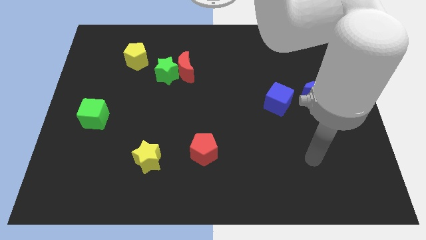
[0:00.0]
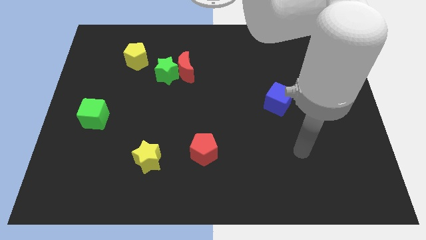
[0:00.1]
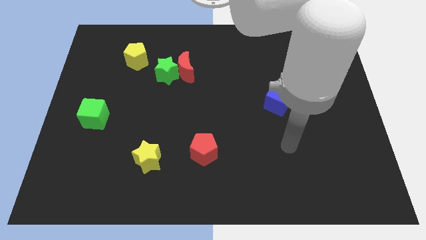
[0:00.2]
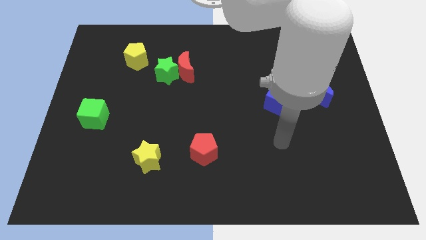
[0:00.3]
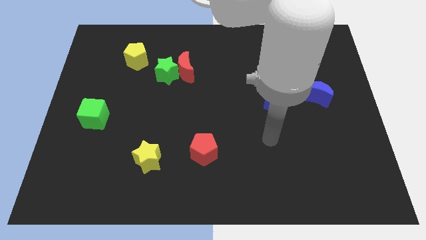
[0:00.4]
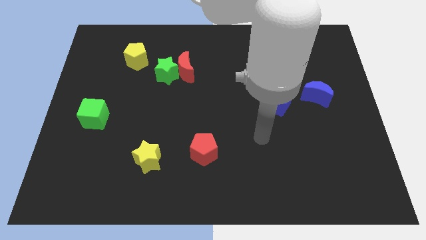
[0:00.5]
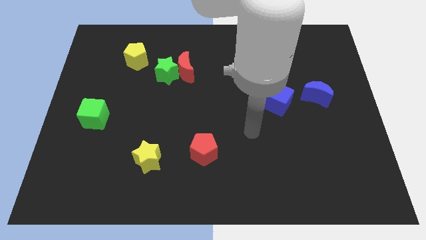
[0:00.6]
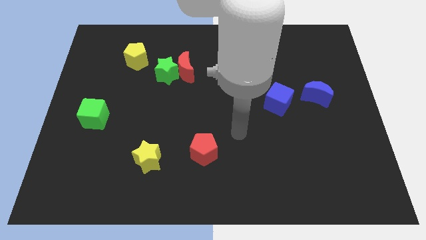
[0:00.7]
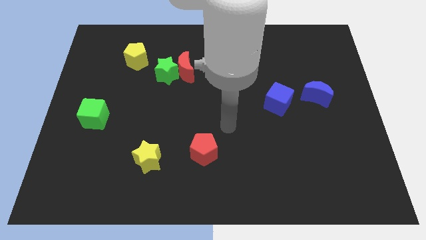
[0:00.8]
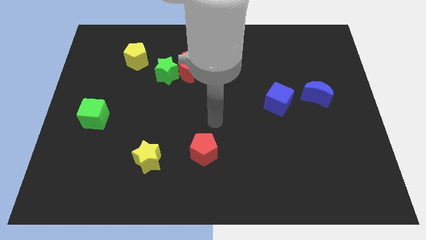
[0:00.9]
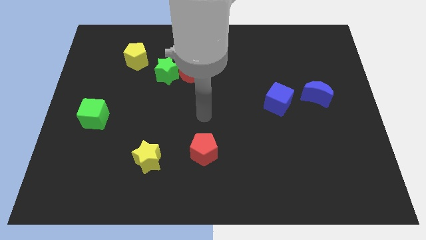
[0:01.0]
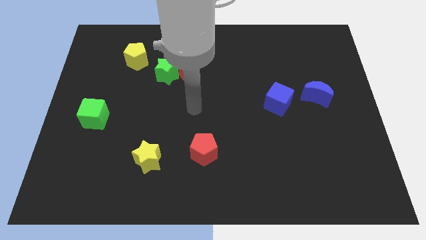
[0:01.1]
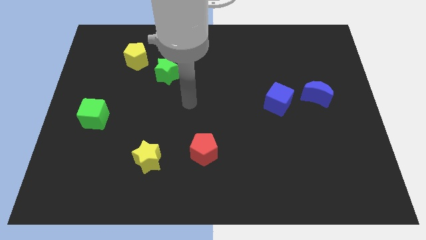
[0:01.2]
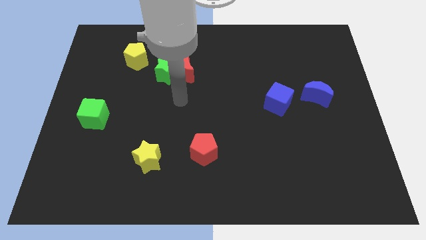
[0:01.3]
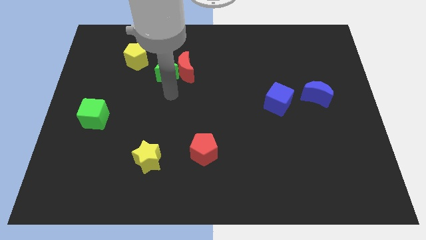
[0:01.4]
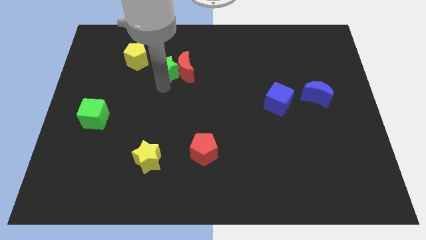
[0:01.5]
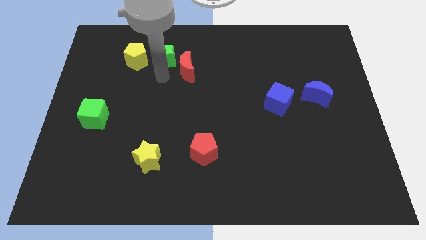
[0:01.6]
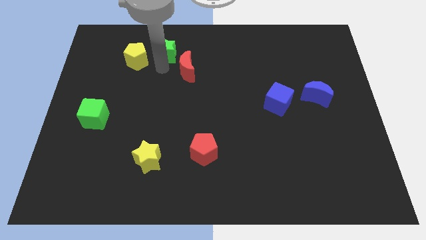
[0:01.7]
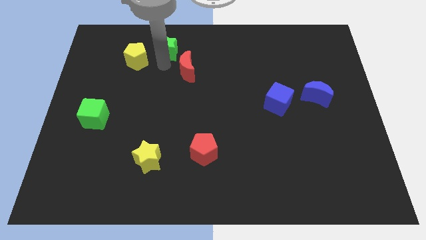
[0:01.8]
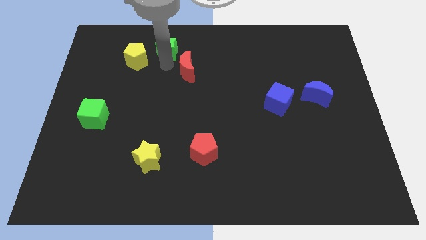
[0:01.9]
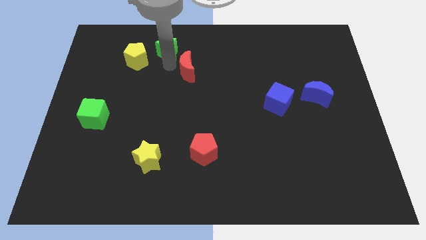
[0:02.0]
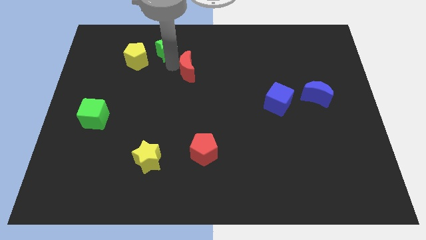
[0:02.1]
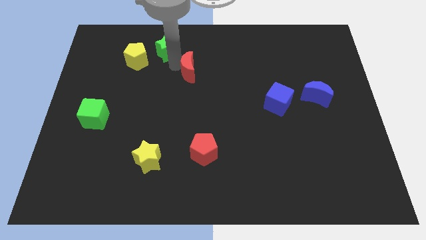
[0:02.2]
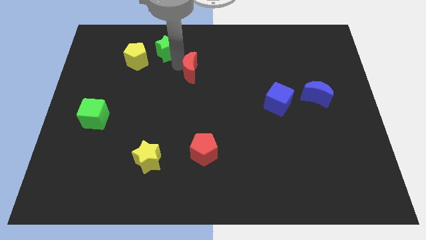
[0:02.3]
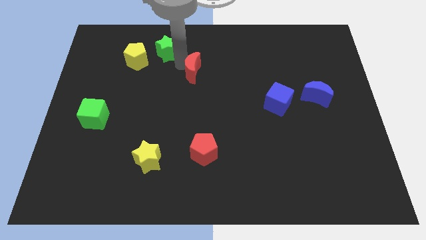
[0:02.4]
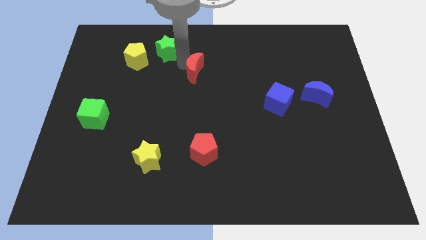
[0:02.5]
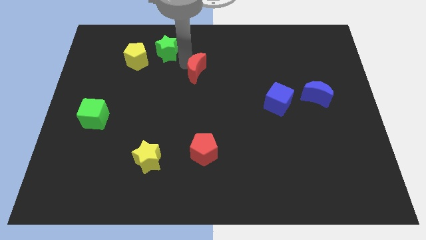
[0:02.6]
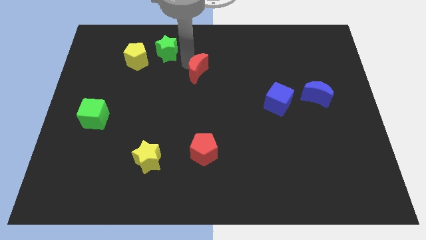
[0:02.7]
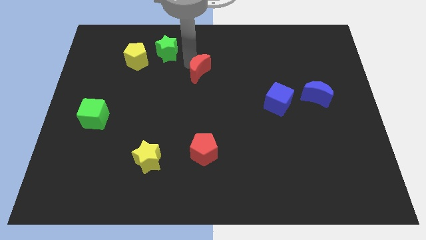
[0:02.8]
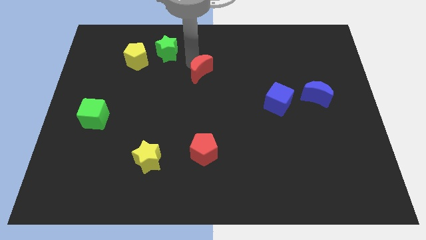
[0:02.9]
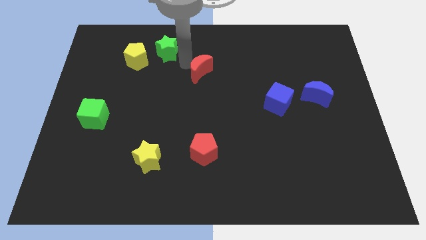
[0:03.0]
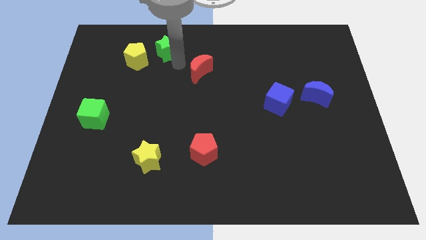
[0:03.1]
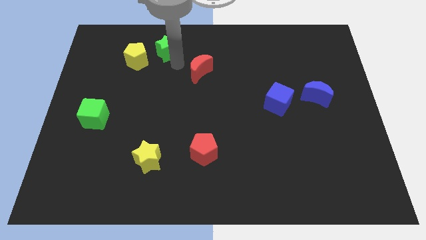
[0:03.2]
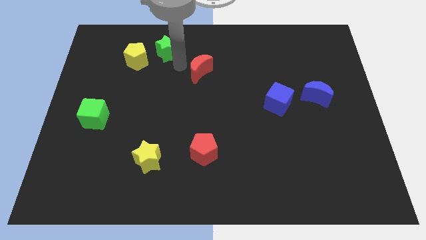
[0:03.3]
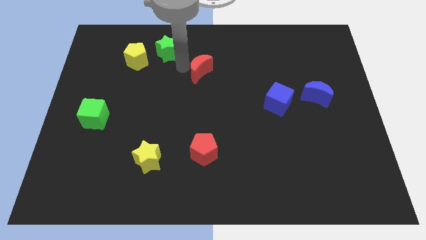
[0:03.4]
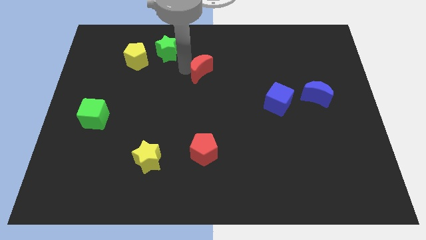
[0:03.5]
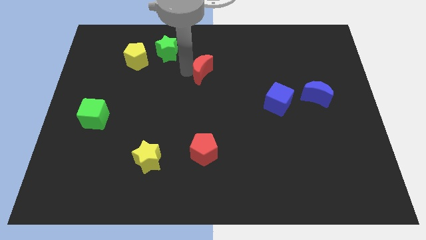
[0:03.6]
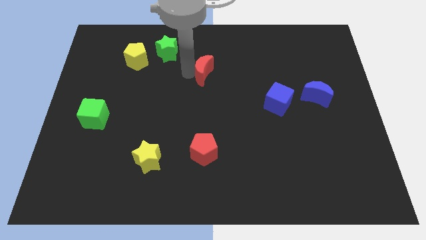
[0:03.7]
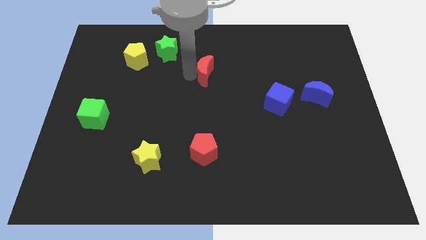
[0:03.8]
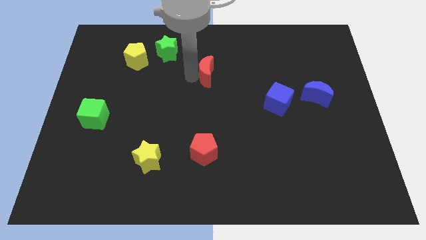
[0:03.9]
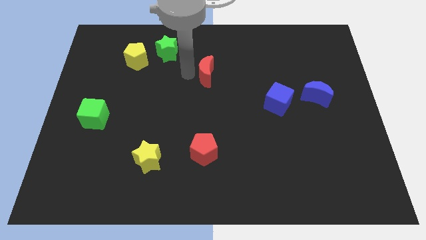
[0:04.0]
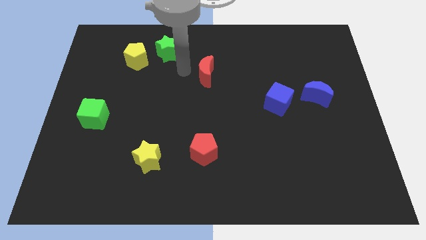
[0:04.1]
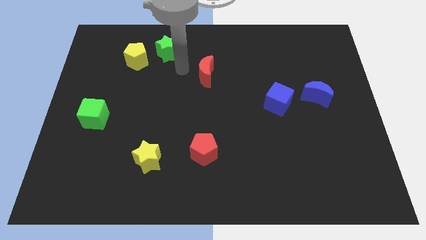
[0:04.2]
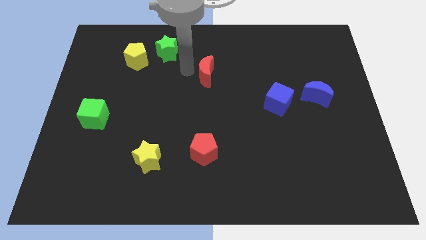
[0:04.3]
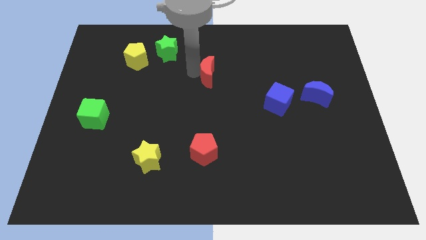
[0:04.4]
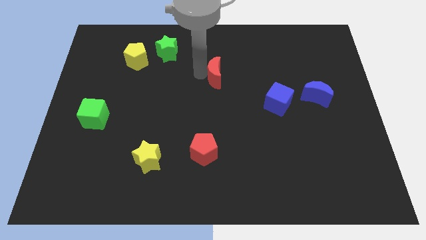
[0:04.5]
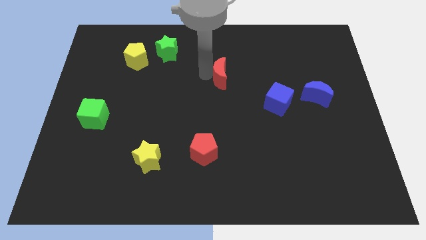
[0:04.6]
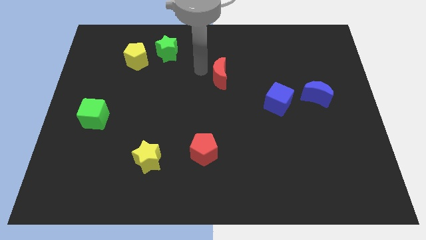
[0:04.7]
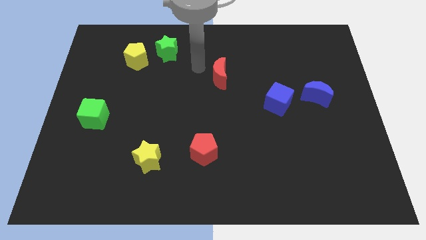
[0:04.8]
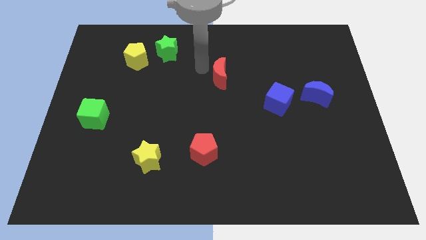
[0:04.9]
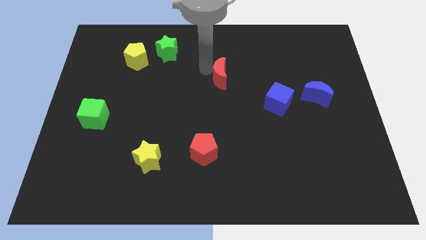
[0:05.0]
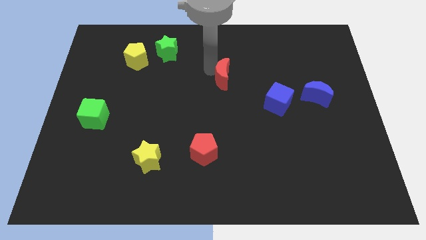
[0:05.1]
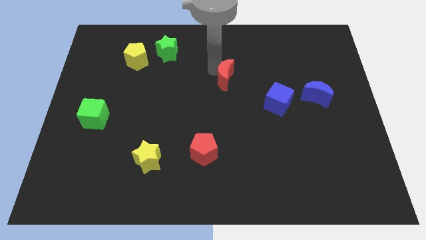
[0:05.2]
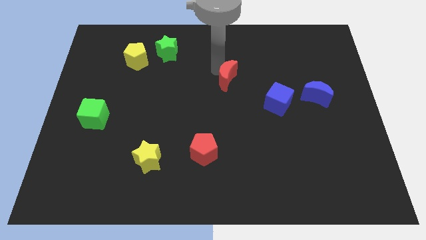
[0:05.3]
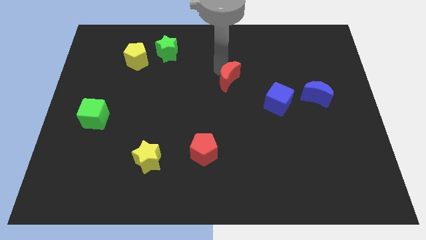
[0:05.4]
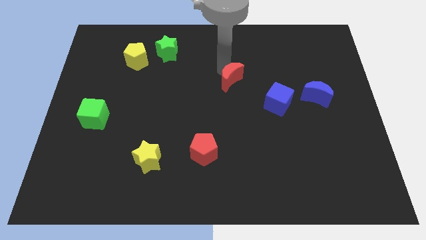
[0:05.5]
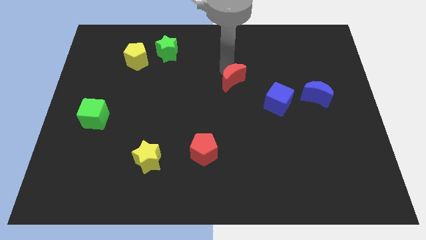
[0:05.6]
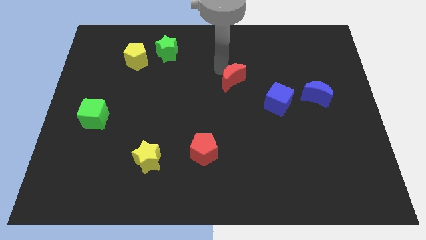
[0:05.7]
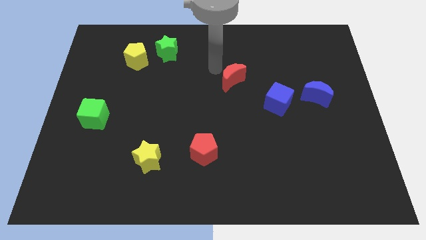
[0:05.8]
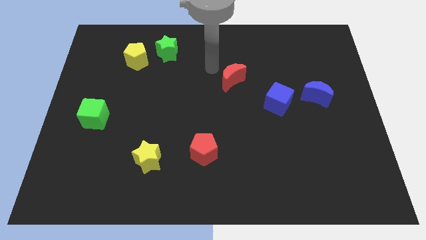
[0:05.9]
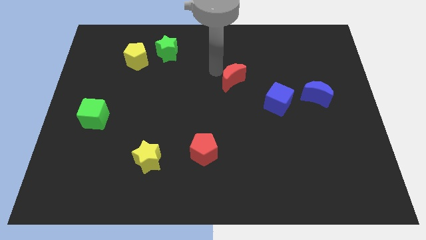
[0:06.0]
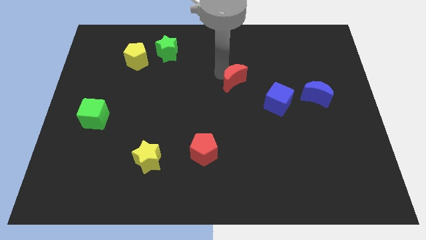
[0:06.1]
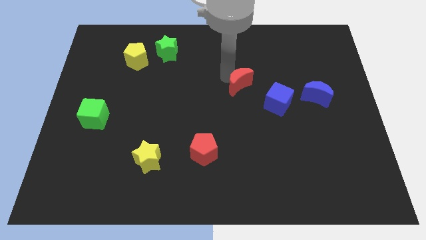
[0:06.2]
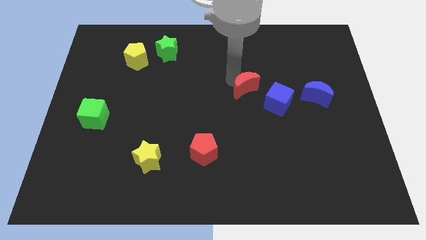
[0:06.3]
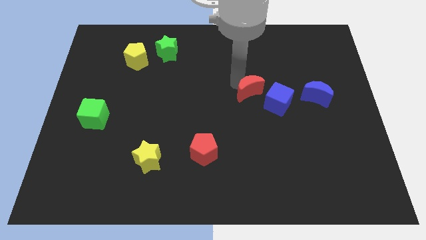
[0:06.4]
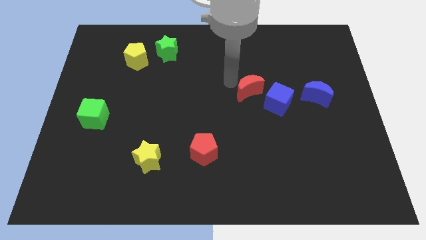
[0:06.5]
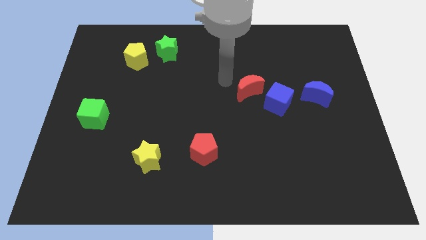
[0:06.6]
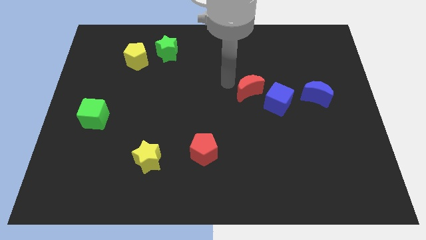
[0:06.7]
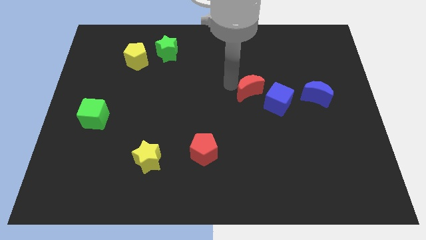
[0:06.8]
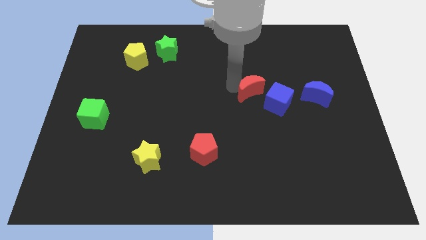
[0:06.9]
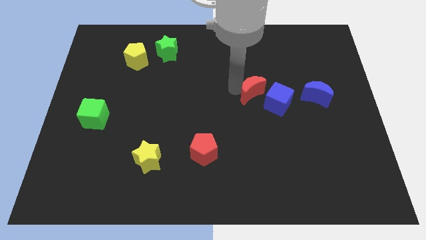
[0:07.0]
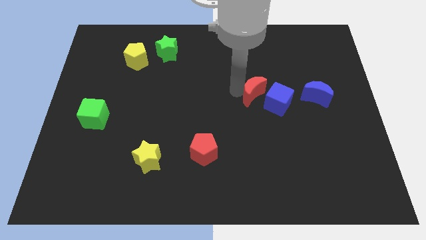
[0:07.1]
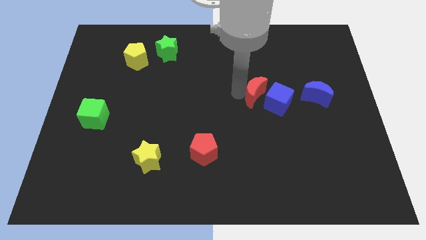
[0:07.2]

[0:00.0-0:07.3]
move the red moon towards the blue cube
